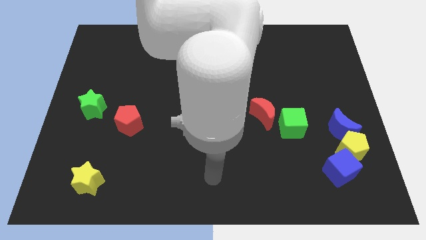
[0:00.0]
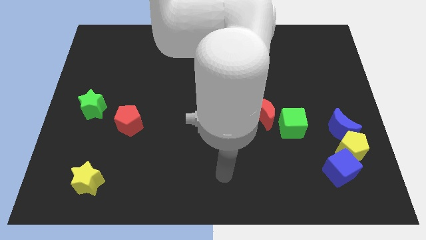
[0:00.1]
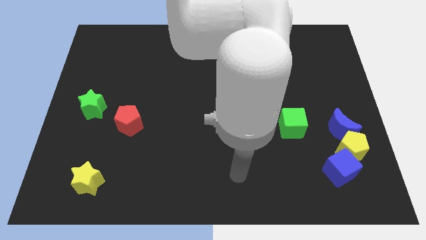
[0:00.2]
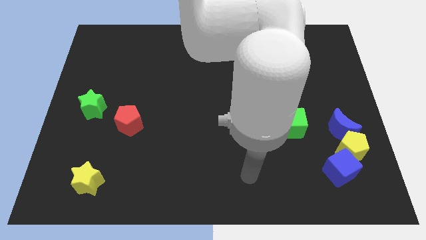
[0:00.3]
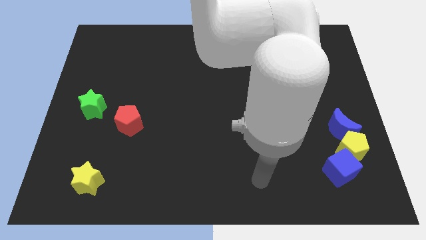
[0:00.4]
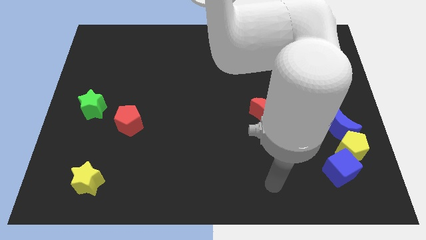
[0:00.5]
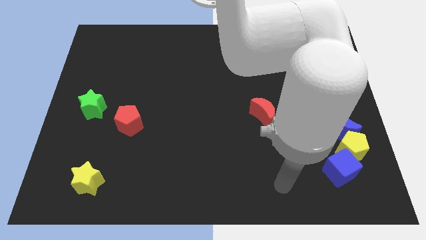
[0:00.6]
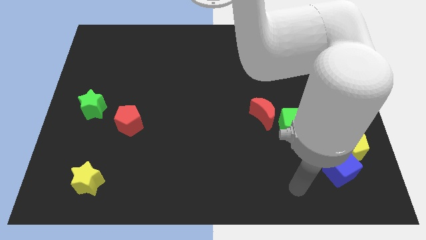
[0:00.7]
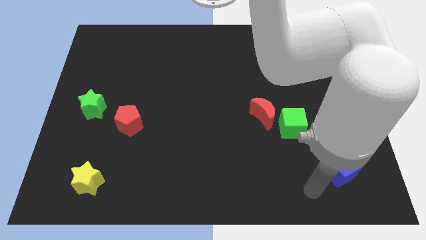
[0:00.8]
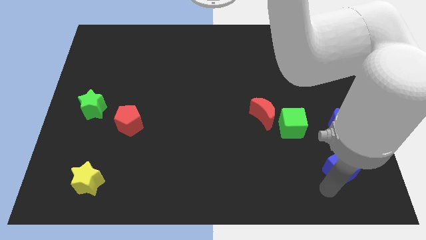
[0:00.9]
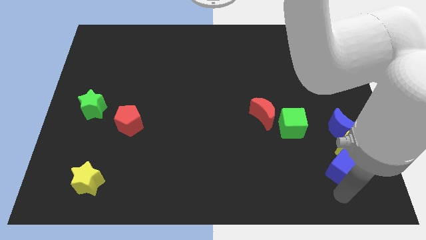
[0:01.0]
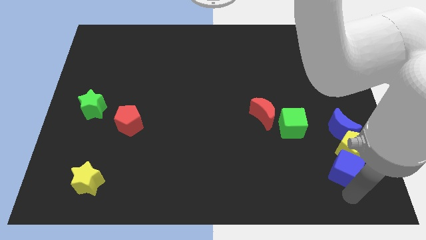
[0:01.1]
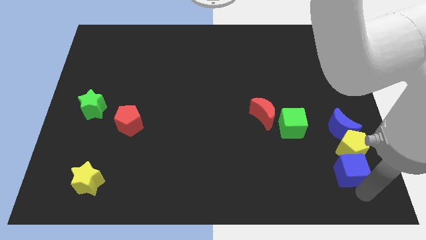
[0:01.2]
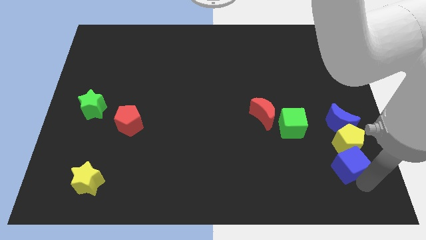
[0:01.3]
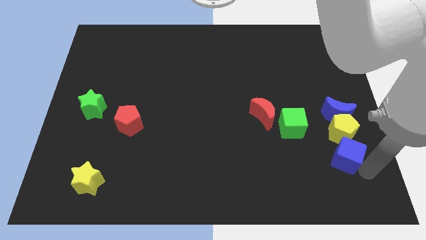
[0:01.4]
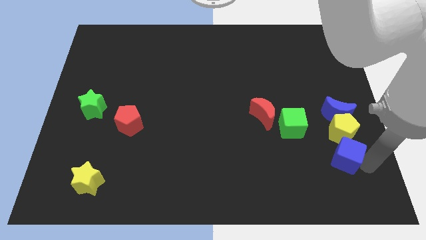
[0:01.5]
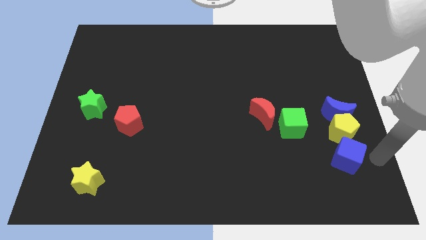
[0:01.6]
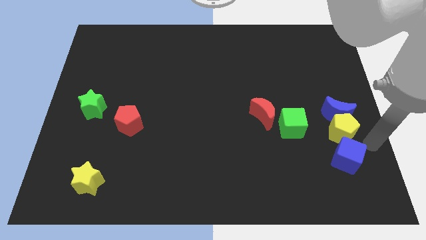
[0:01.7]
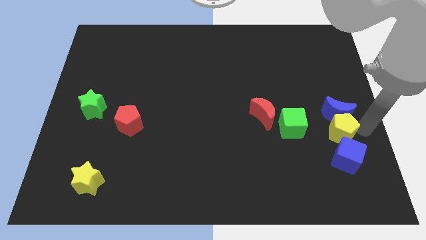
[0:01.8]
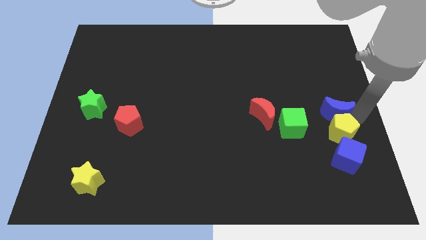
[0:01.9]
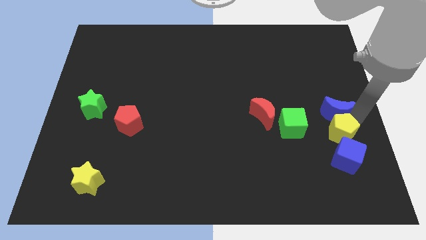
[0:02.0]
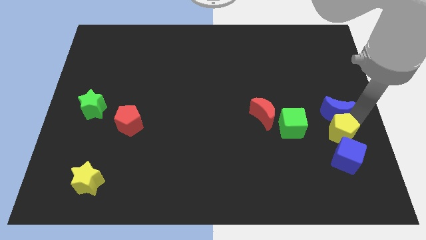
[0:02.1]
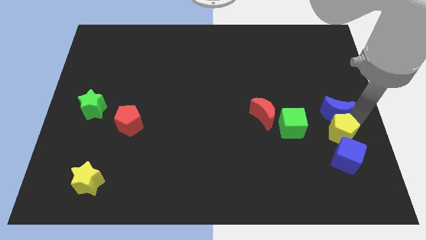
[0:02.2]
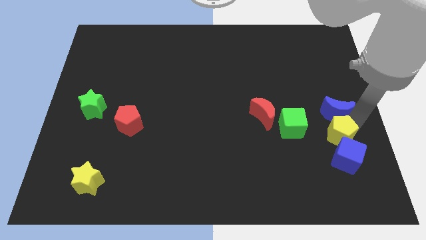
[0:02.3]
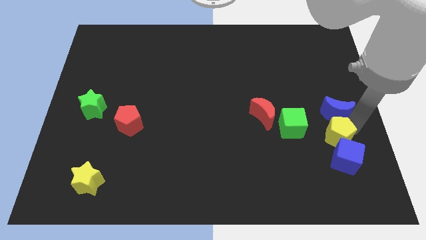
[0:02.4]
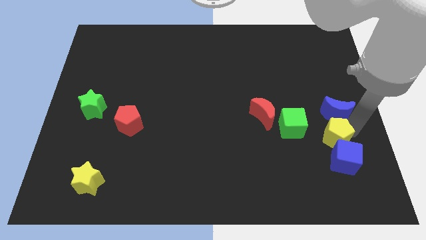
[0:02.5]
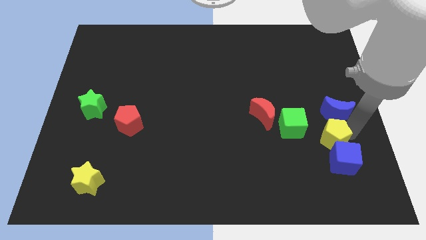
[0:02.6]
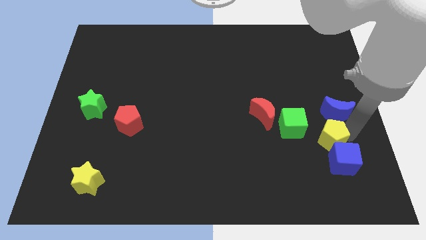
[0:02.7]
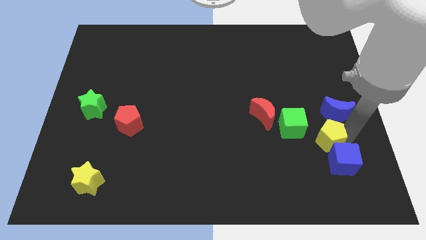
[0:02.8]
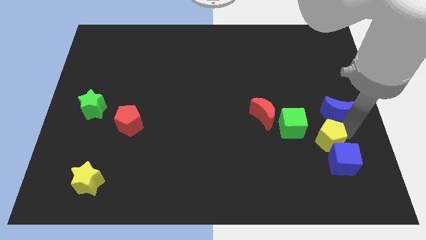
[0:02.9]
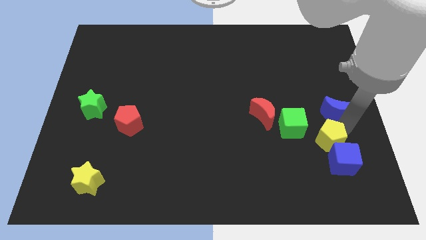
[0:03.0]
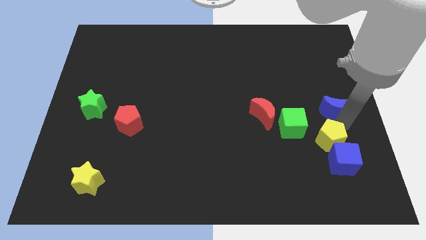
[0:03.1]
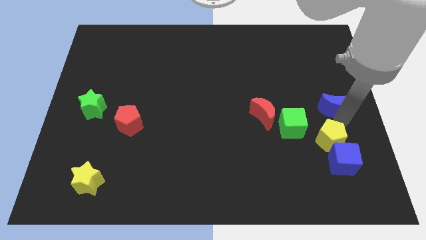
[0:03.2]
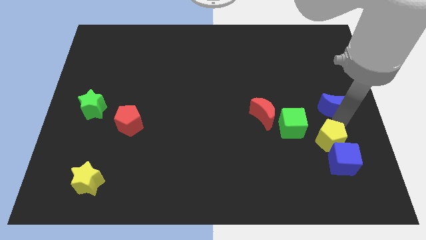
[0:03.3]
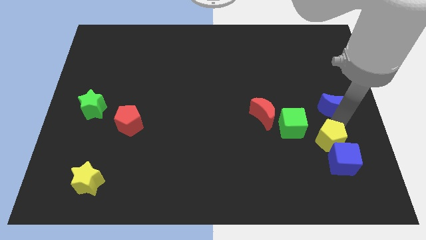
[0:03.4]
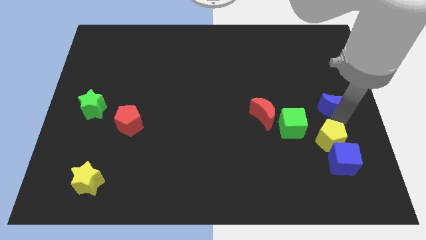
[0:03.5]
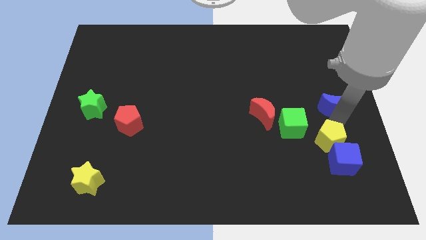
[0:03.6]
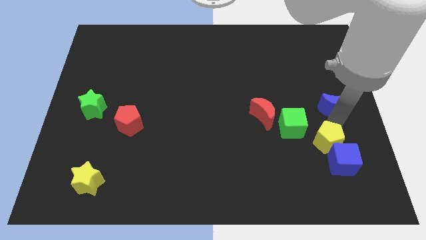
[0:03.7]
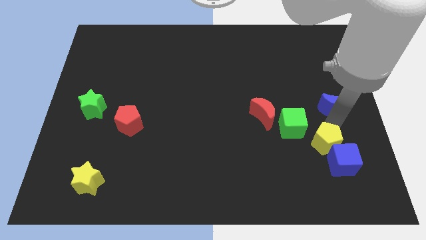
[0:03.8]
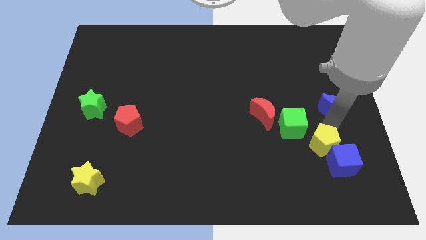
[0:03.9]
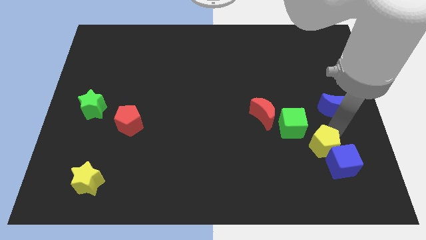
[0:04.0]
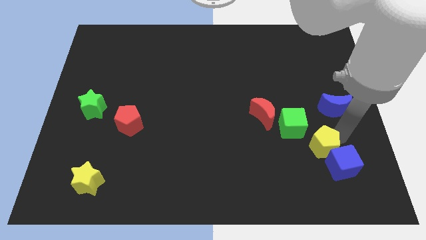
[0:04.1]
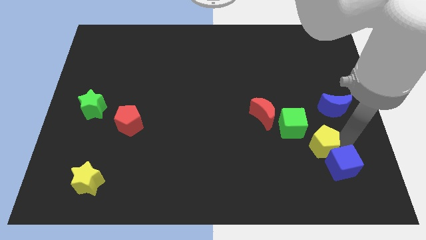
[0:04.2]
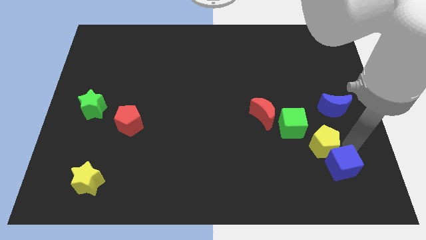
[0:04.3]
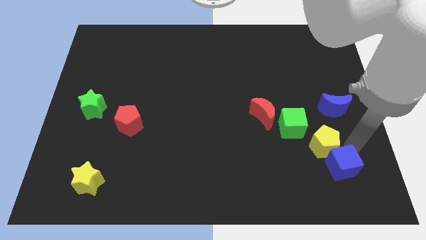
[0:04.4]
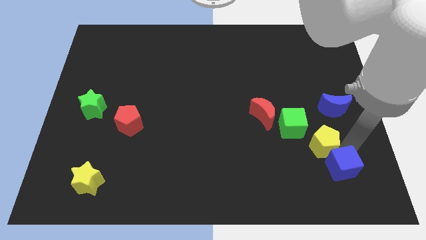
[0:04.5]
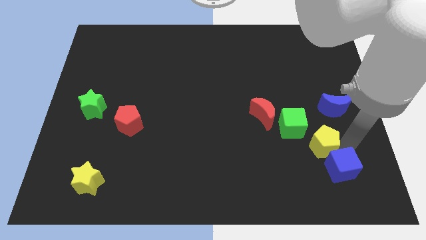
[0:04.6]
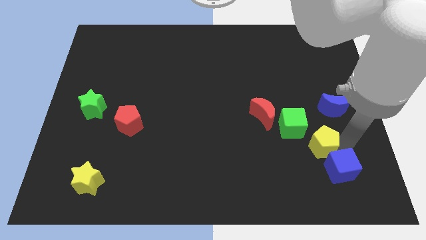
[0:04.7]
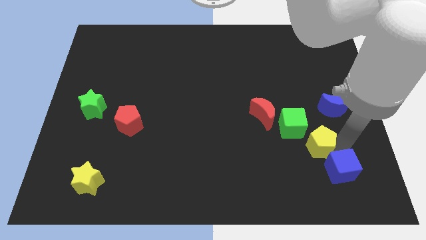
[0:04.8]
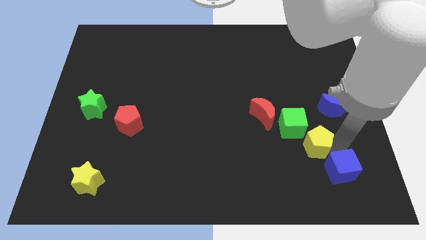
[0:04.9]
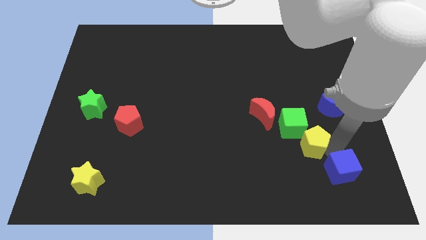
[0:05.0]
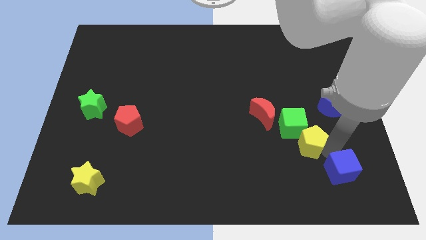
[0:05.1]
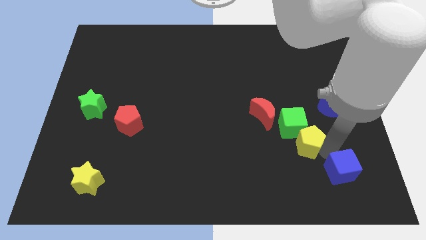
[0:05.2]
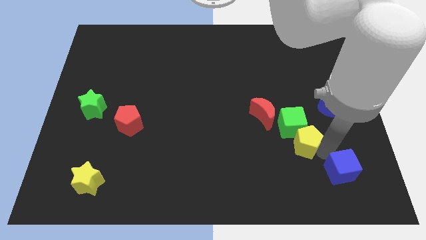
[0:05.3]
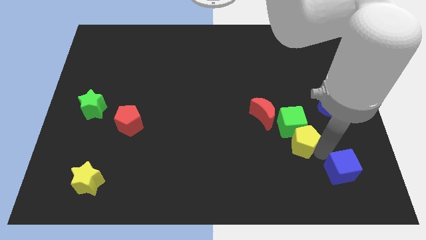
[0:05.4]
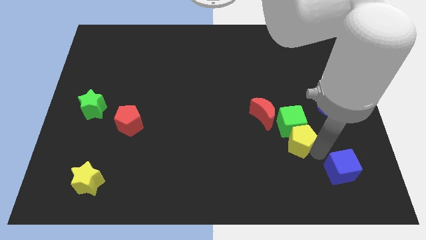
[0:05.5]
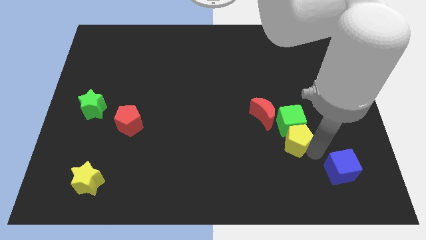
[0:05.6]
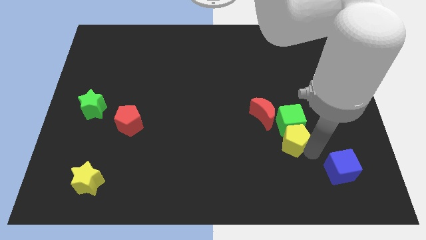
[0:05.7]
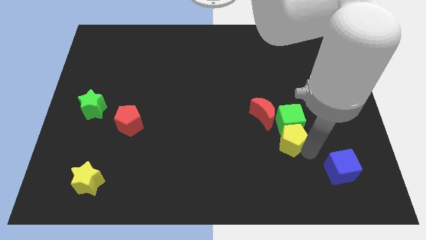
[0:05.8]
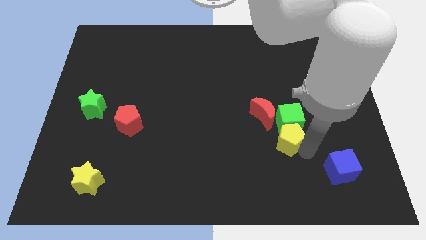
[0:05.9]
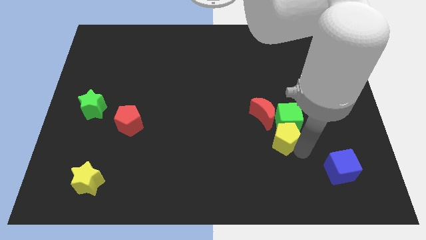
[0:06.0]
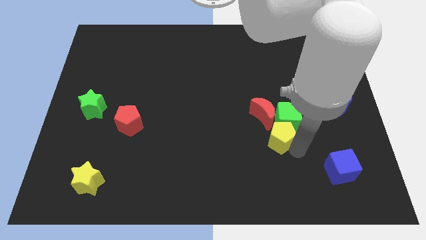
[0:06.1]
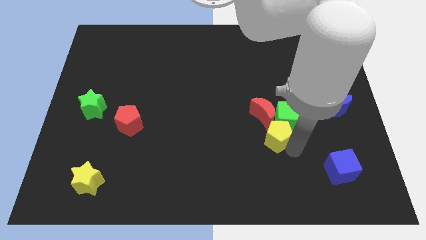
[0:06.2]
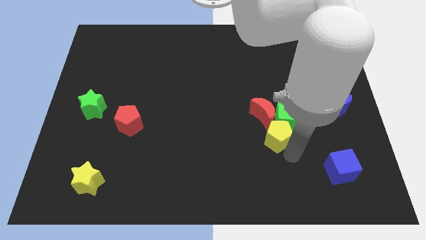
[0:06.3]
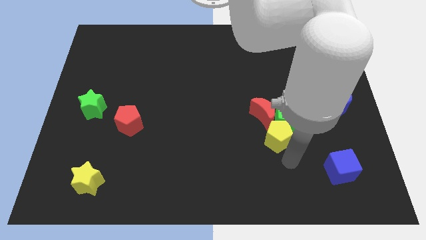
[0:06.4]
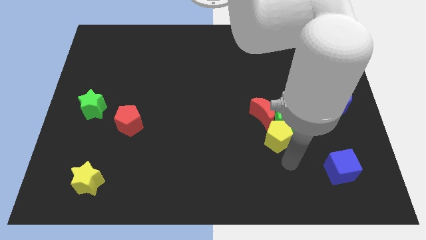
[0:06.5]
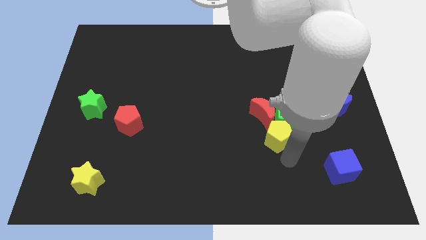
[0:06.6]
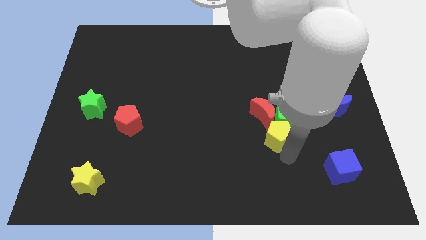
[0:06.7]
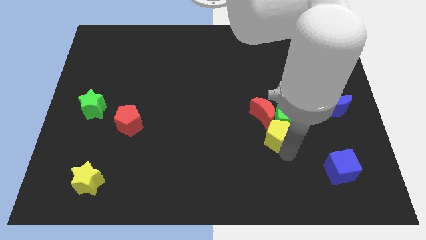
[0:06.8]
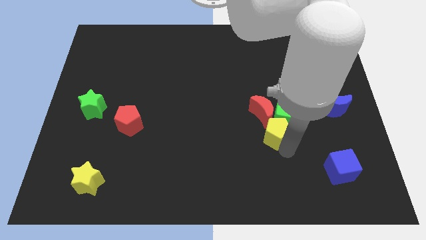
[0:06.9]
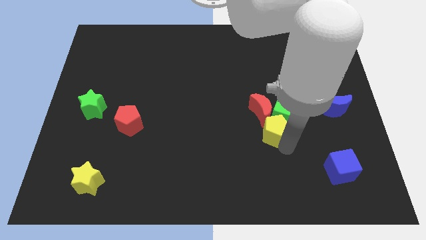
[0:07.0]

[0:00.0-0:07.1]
put the yellow pentagon to the red moon

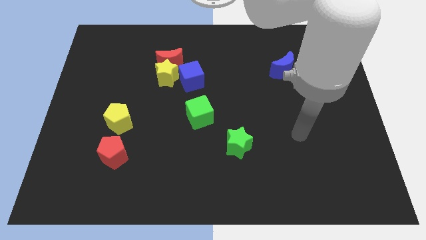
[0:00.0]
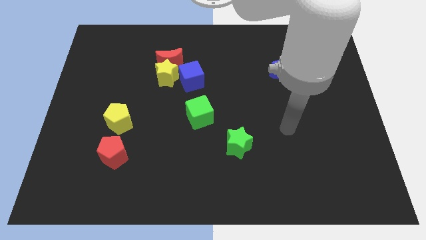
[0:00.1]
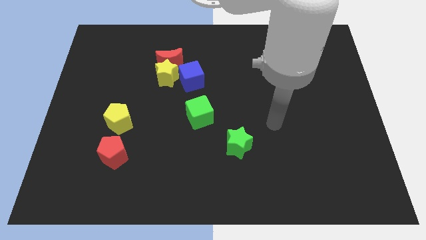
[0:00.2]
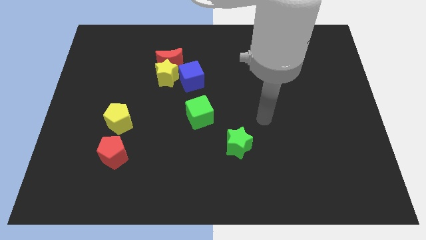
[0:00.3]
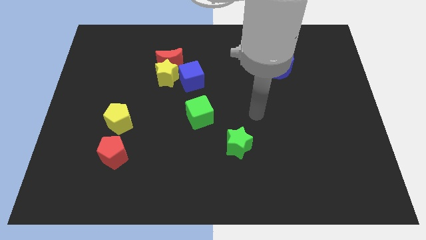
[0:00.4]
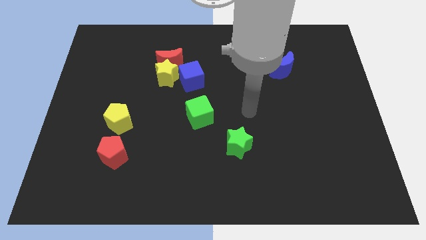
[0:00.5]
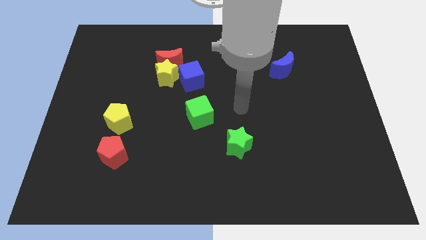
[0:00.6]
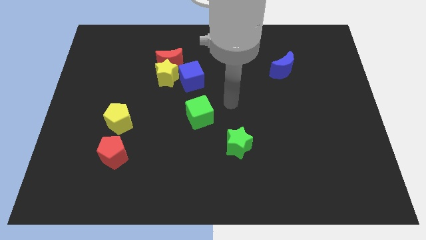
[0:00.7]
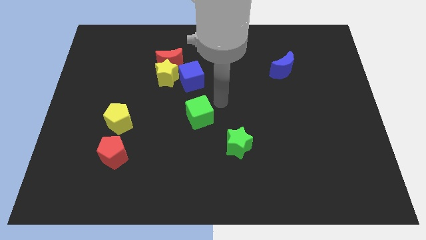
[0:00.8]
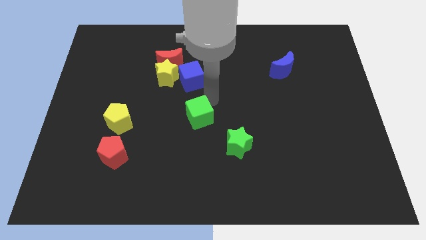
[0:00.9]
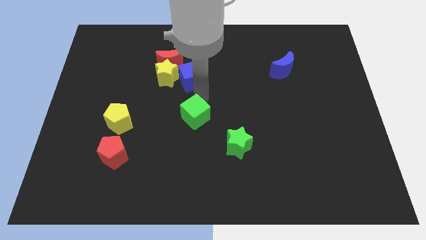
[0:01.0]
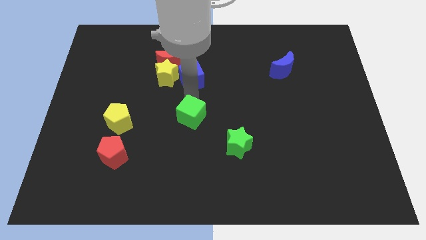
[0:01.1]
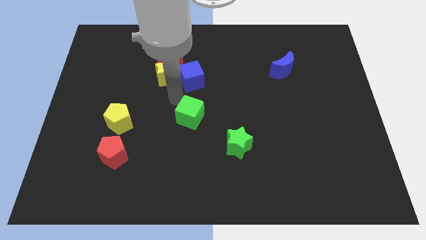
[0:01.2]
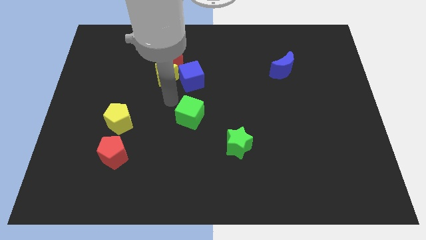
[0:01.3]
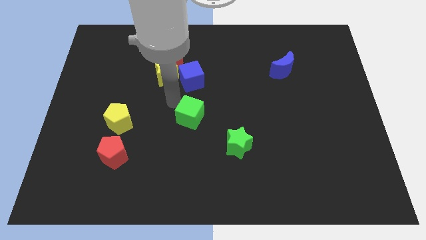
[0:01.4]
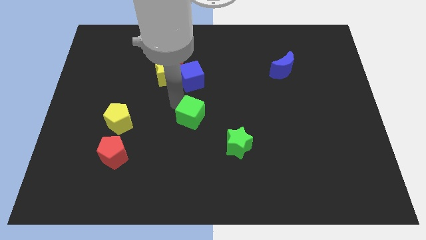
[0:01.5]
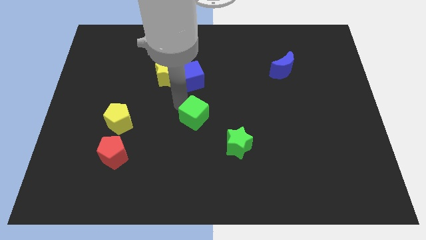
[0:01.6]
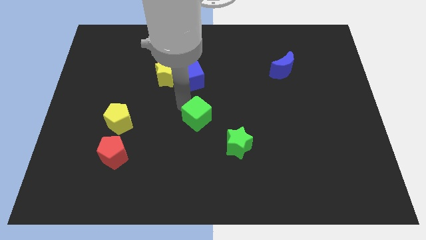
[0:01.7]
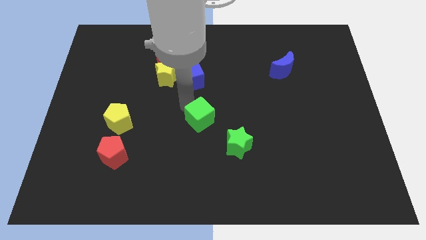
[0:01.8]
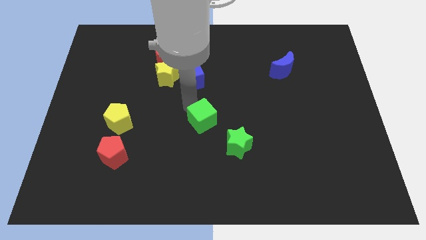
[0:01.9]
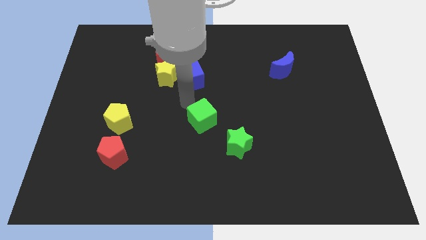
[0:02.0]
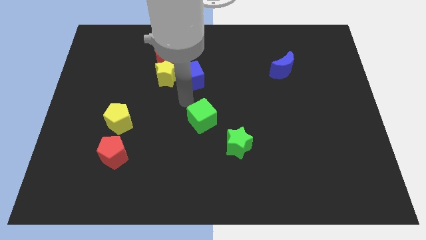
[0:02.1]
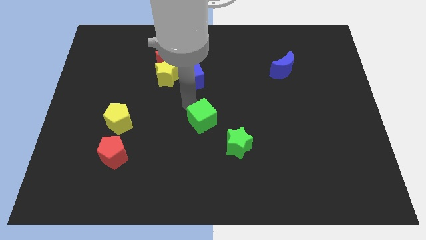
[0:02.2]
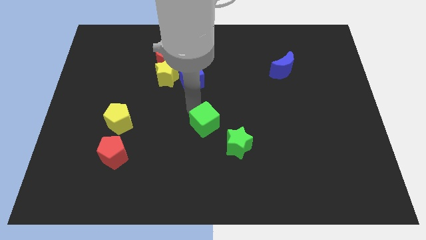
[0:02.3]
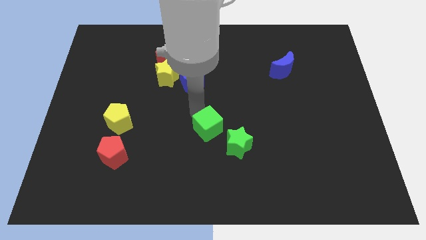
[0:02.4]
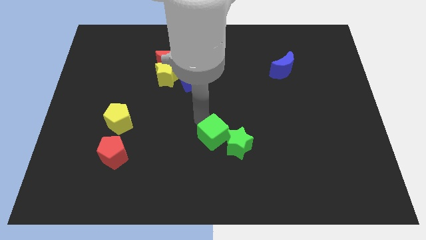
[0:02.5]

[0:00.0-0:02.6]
put the green cube close to the green star
